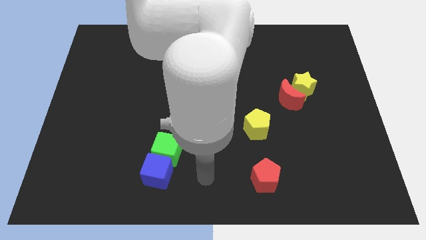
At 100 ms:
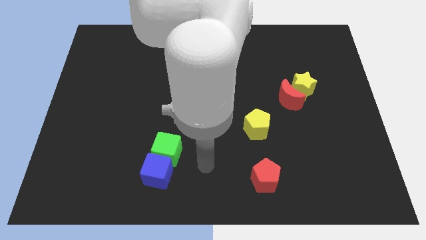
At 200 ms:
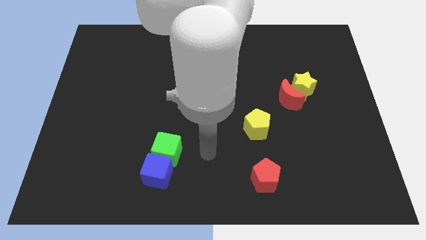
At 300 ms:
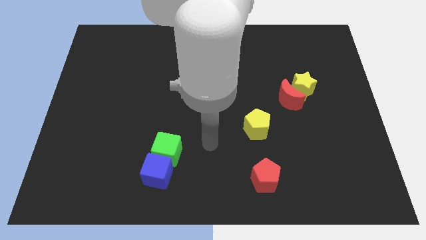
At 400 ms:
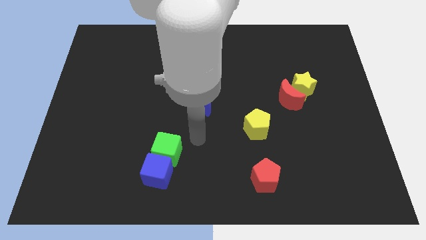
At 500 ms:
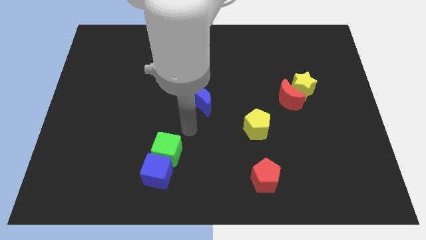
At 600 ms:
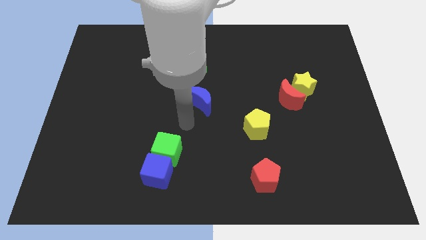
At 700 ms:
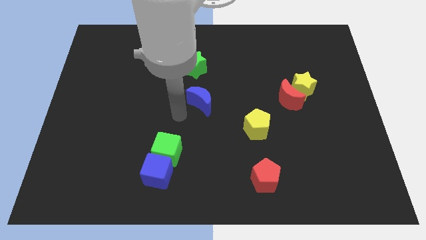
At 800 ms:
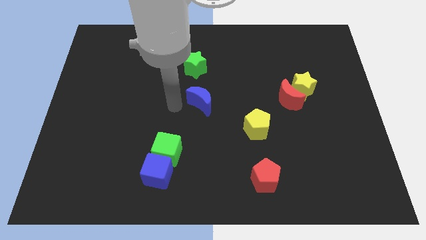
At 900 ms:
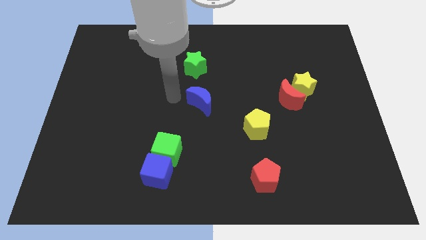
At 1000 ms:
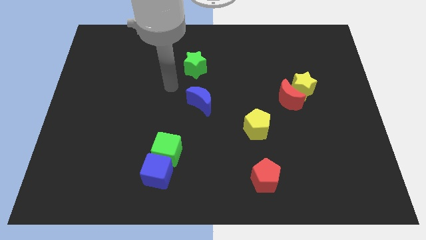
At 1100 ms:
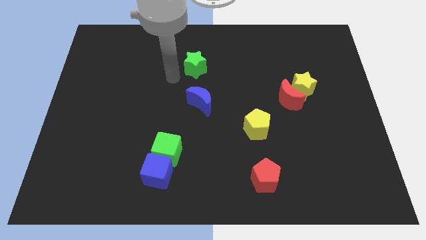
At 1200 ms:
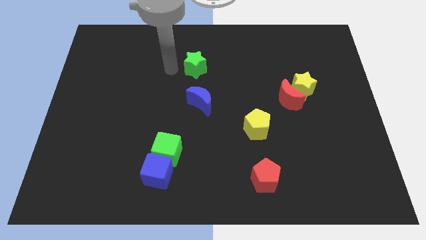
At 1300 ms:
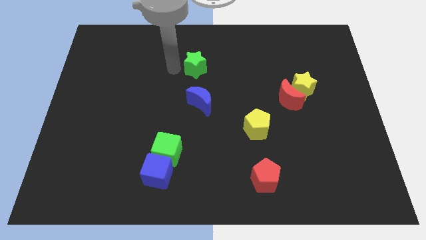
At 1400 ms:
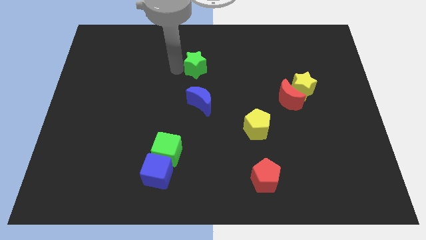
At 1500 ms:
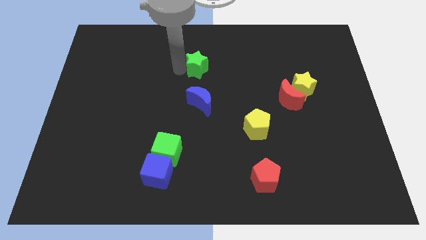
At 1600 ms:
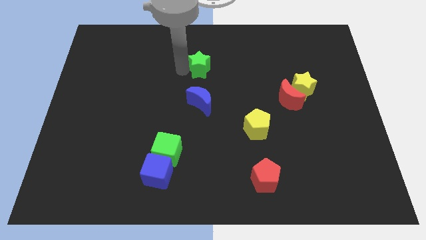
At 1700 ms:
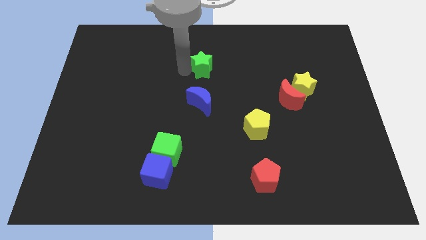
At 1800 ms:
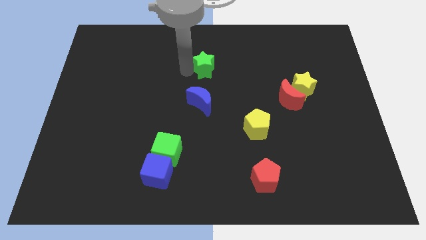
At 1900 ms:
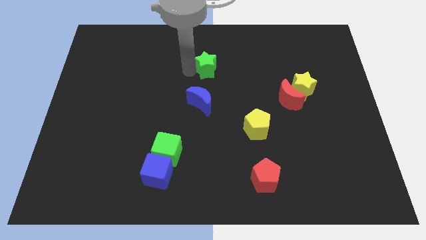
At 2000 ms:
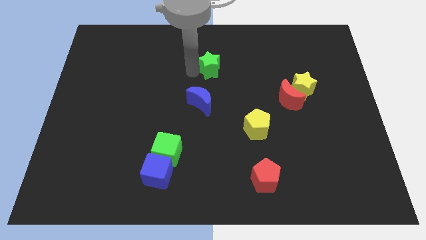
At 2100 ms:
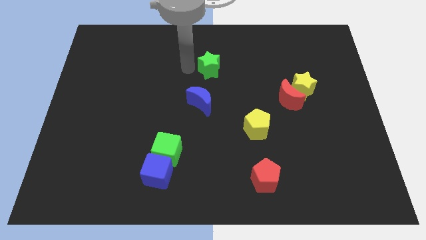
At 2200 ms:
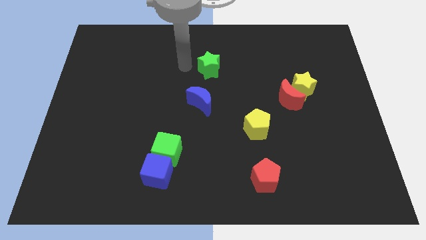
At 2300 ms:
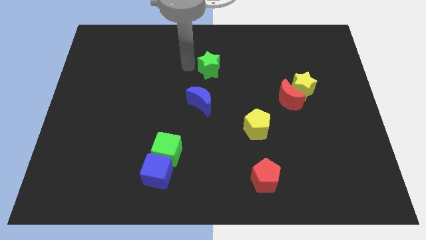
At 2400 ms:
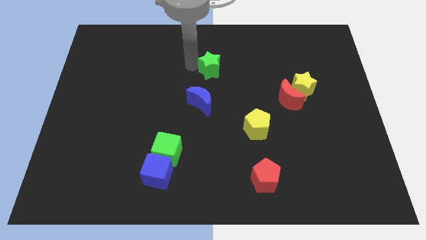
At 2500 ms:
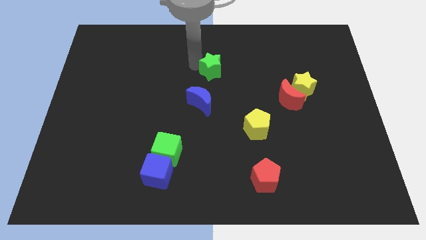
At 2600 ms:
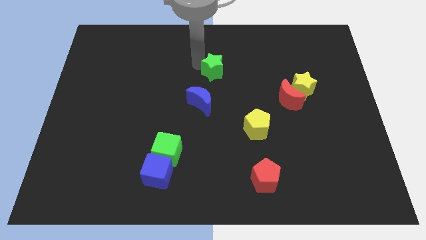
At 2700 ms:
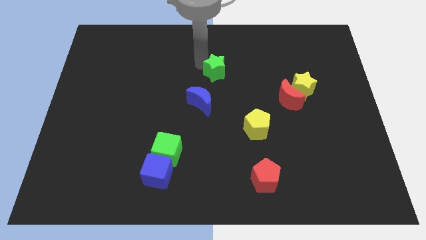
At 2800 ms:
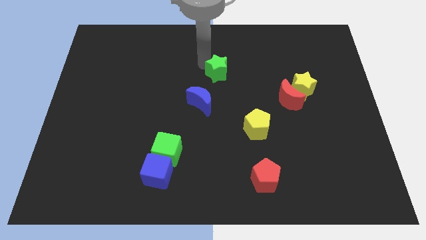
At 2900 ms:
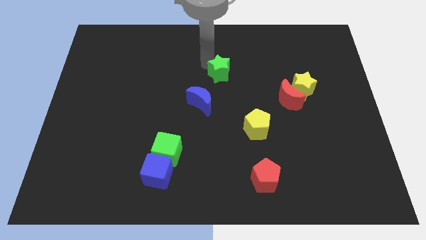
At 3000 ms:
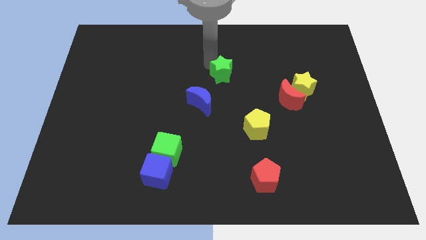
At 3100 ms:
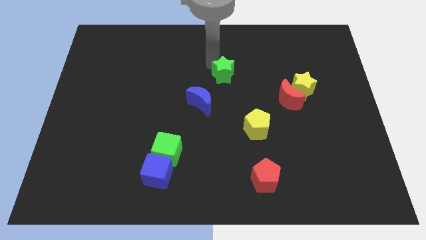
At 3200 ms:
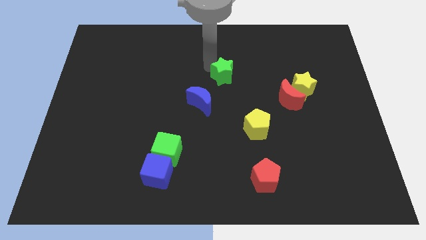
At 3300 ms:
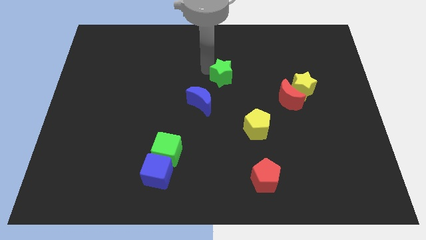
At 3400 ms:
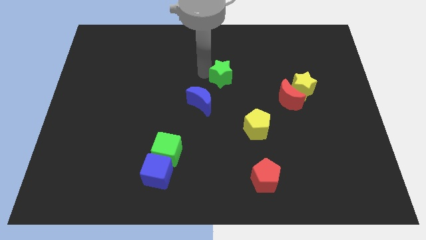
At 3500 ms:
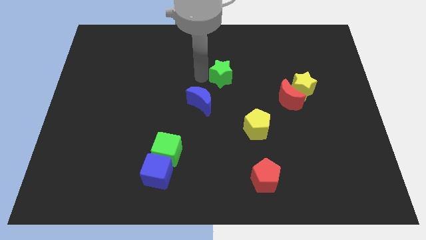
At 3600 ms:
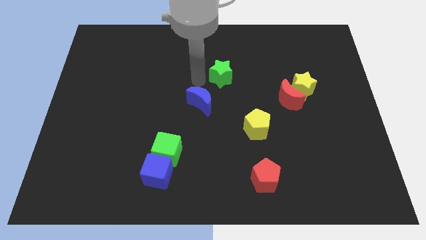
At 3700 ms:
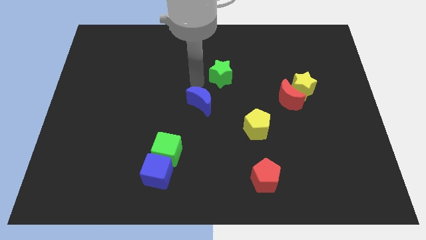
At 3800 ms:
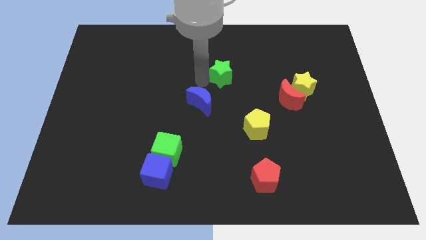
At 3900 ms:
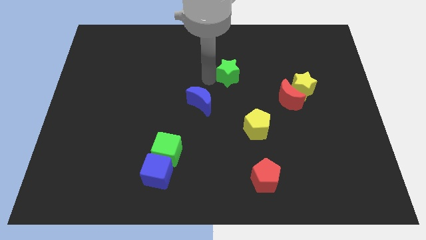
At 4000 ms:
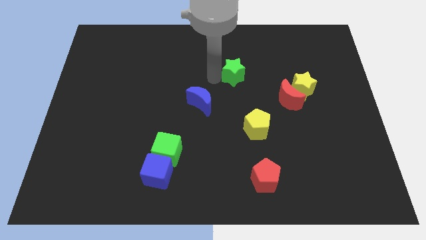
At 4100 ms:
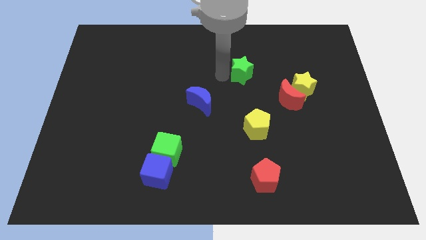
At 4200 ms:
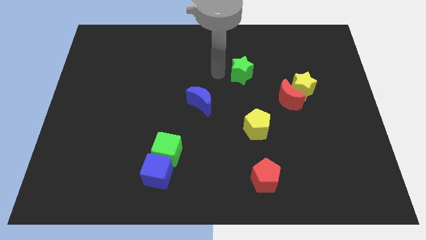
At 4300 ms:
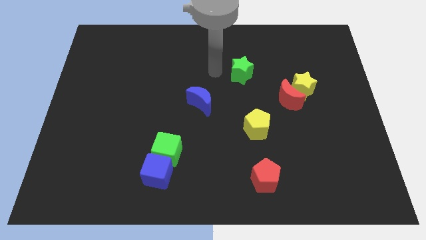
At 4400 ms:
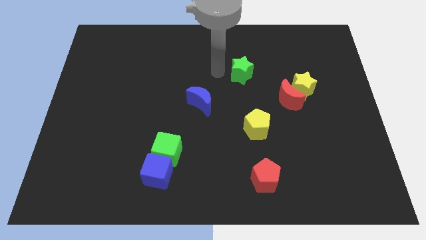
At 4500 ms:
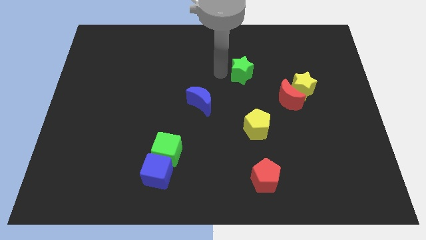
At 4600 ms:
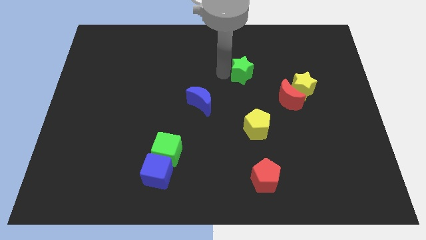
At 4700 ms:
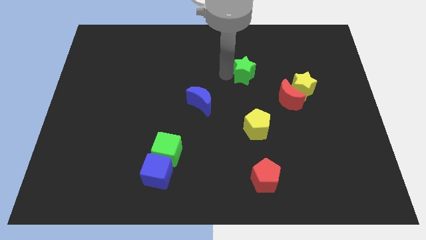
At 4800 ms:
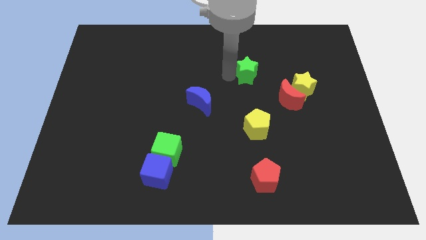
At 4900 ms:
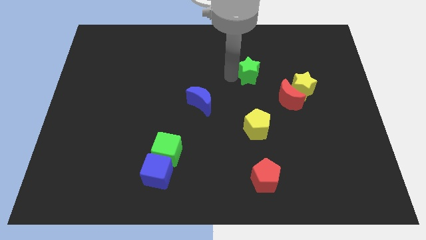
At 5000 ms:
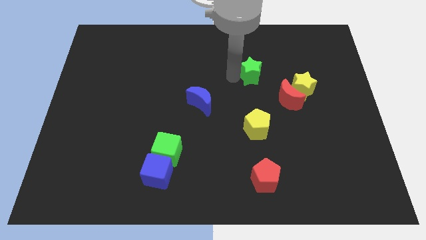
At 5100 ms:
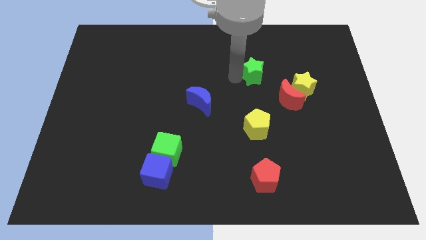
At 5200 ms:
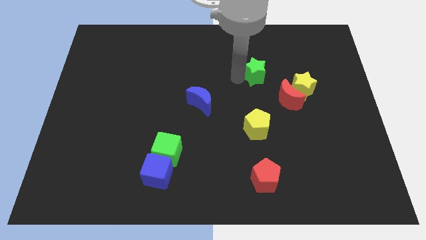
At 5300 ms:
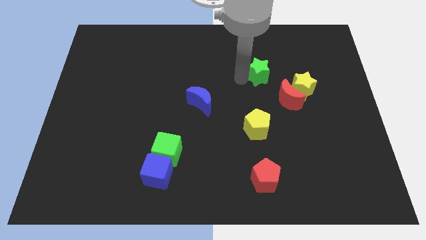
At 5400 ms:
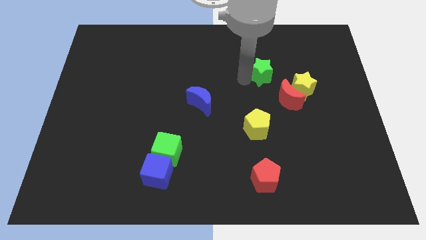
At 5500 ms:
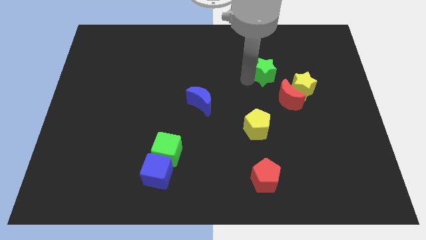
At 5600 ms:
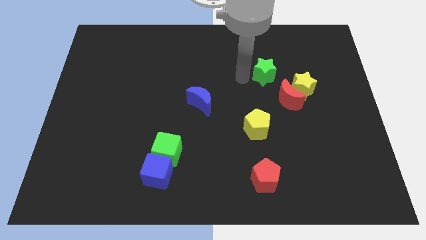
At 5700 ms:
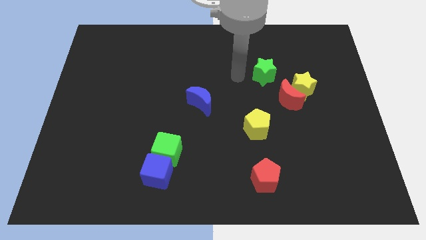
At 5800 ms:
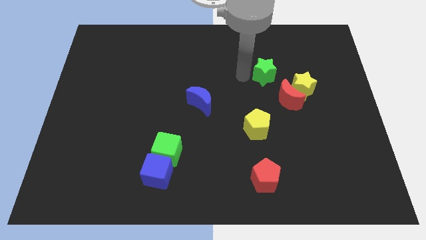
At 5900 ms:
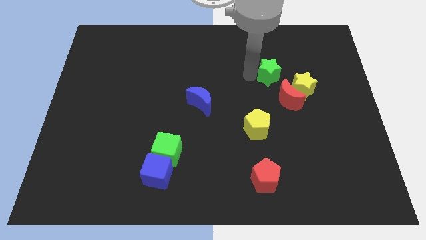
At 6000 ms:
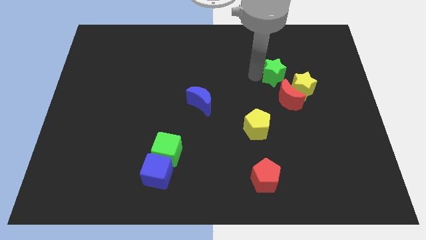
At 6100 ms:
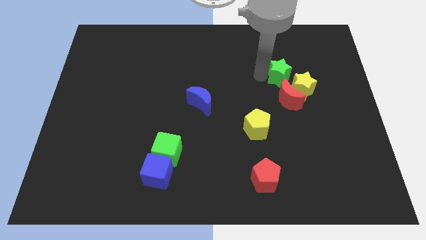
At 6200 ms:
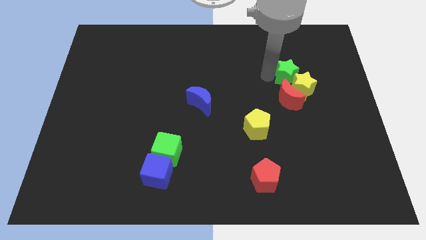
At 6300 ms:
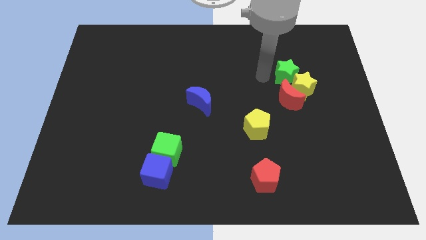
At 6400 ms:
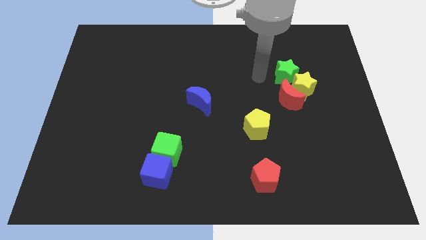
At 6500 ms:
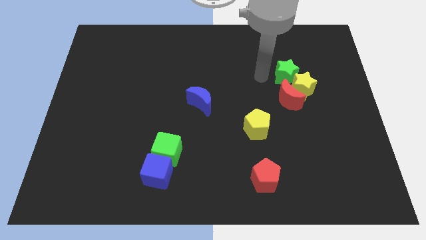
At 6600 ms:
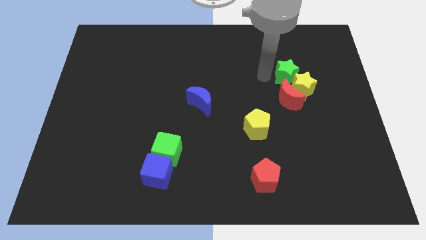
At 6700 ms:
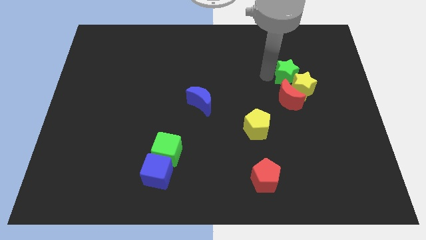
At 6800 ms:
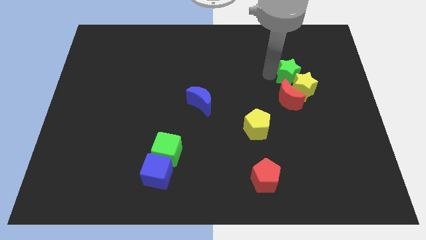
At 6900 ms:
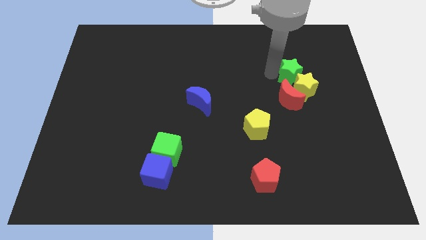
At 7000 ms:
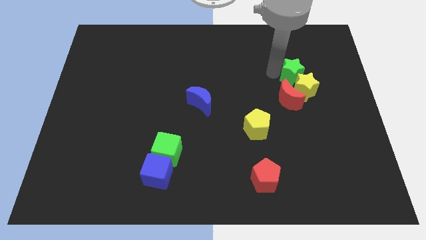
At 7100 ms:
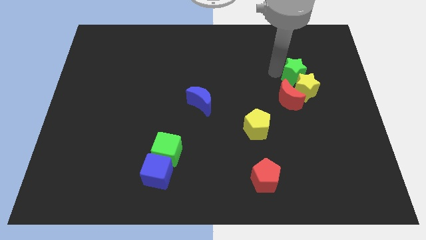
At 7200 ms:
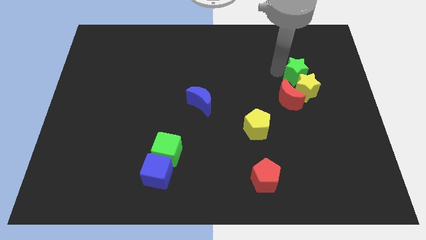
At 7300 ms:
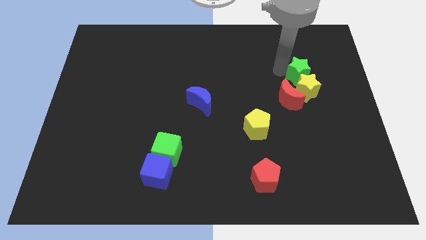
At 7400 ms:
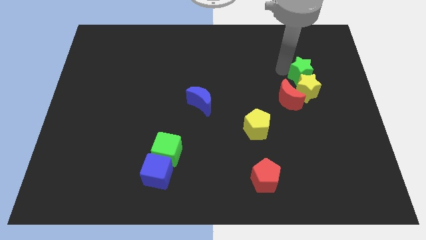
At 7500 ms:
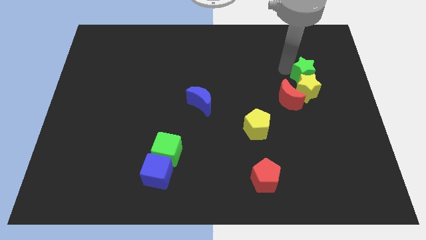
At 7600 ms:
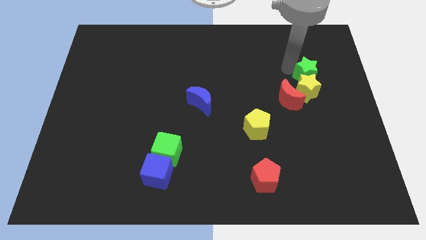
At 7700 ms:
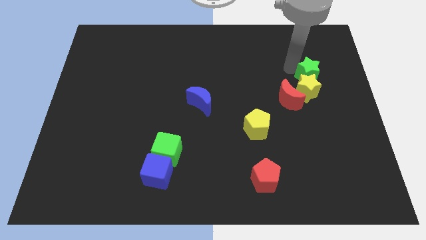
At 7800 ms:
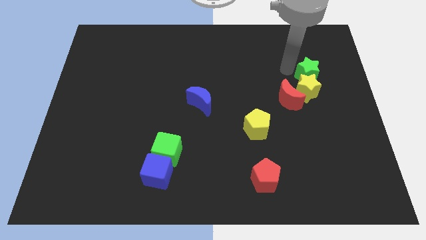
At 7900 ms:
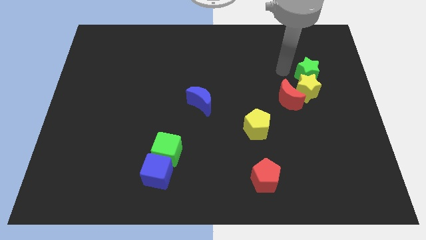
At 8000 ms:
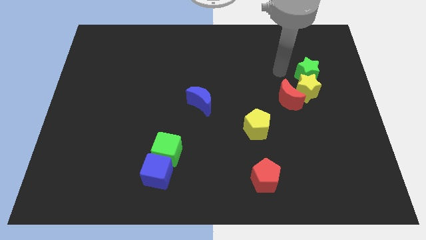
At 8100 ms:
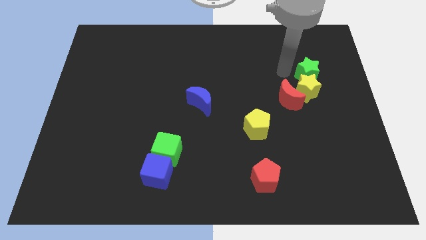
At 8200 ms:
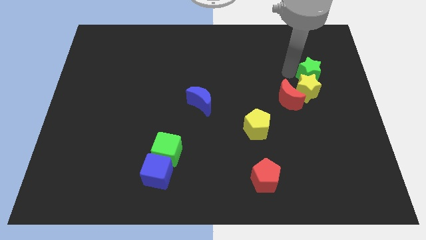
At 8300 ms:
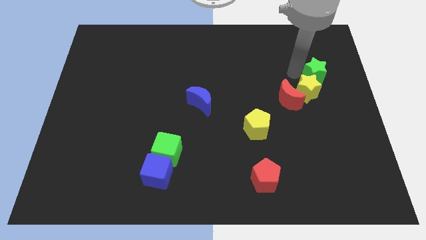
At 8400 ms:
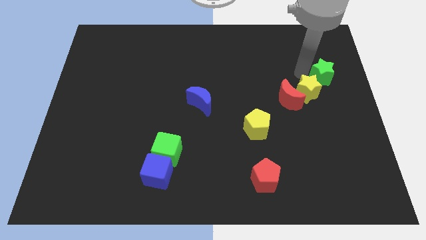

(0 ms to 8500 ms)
move the green star to the right side of the board
